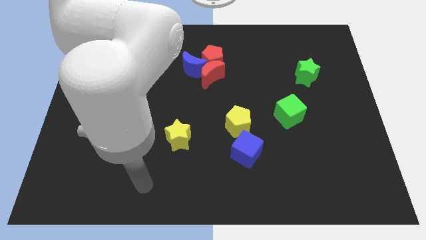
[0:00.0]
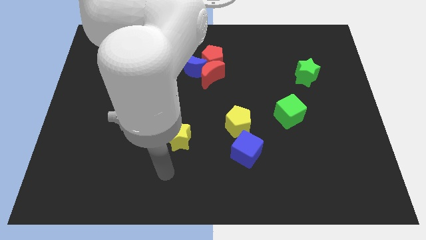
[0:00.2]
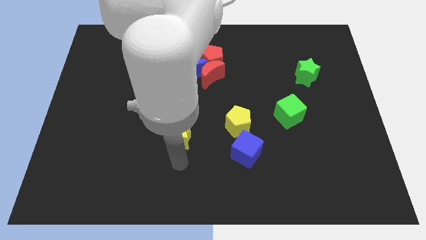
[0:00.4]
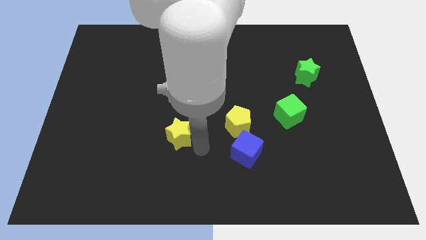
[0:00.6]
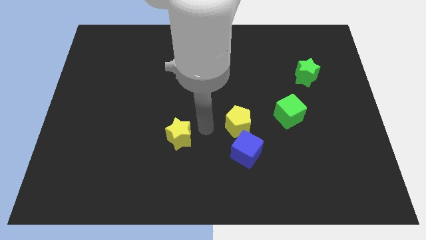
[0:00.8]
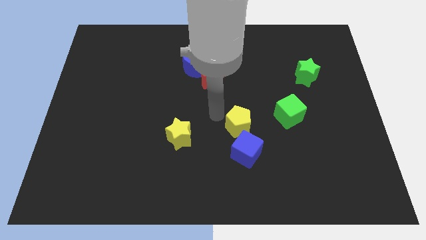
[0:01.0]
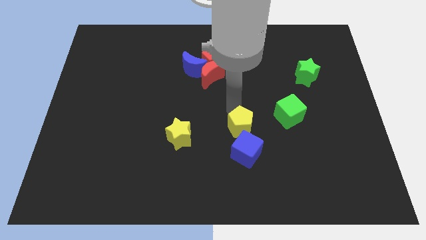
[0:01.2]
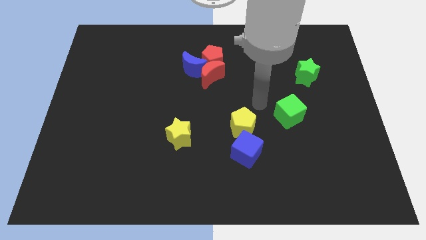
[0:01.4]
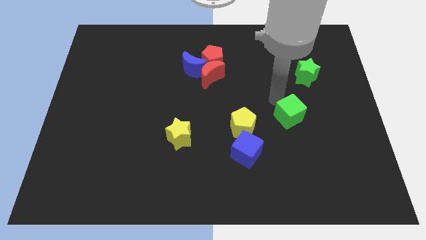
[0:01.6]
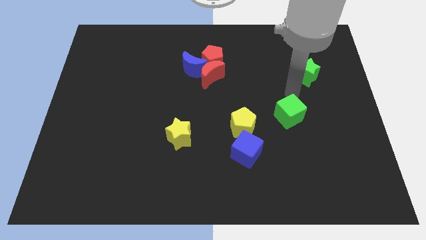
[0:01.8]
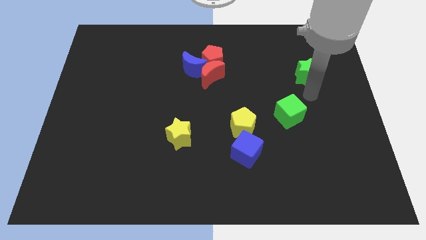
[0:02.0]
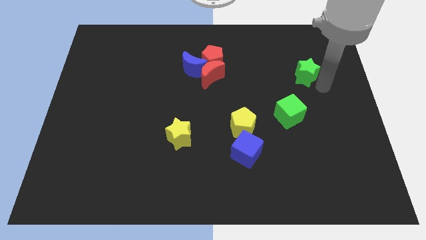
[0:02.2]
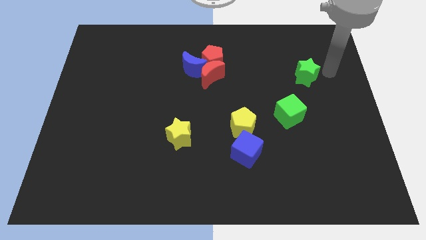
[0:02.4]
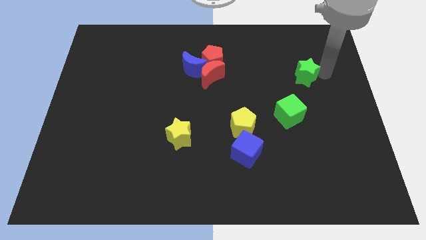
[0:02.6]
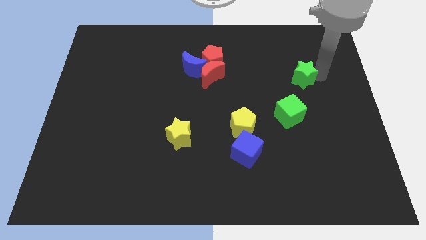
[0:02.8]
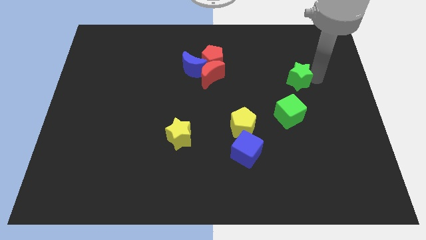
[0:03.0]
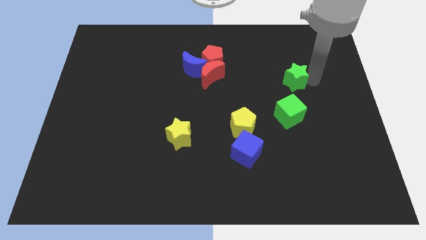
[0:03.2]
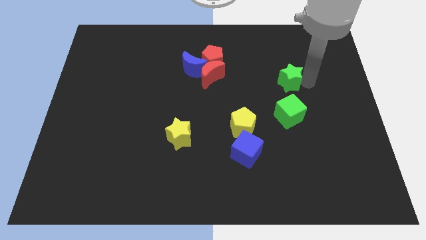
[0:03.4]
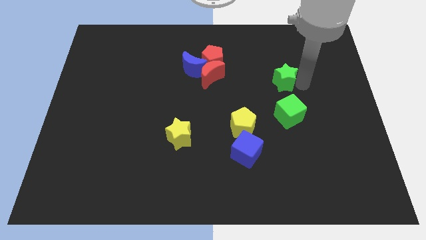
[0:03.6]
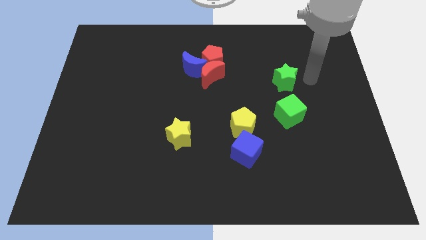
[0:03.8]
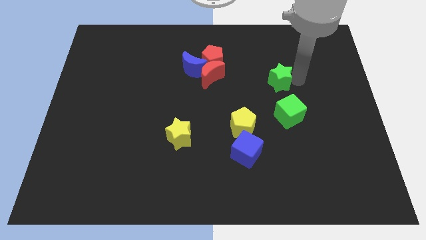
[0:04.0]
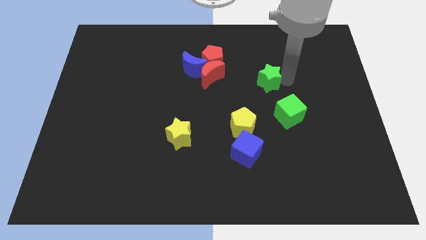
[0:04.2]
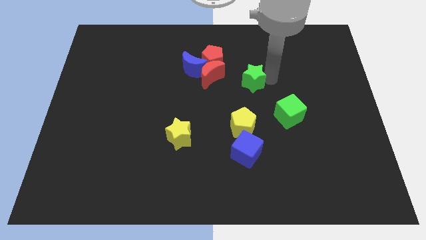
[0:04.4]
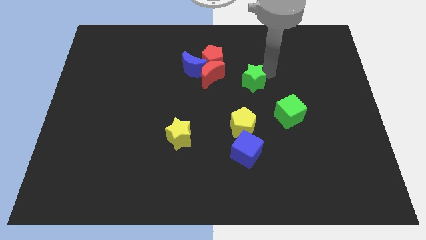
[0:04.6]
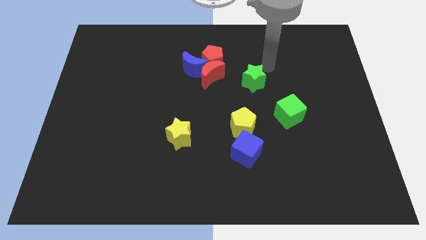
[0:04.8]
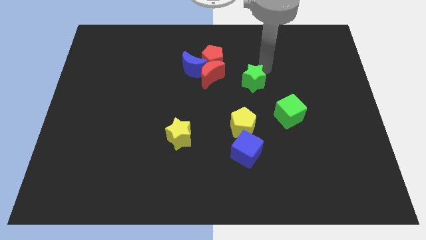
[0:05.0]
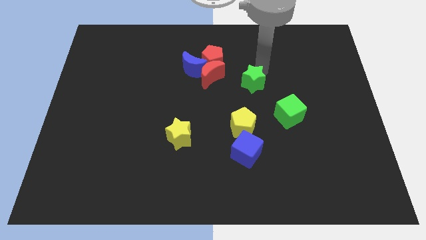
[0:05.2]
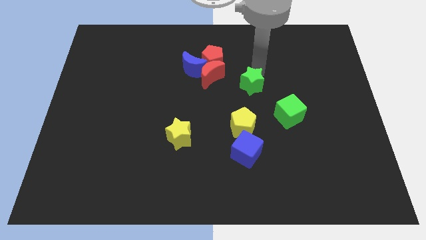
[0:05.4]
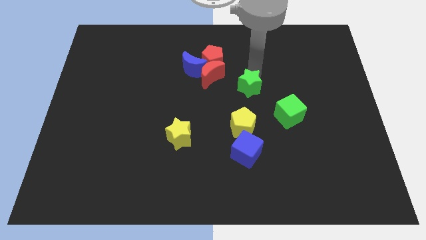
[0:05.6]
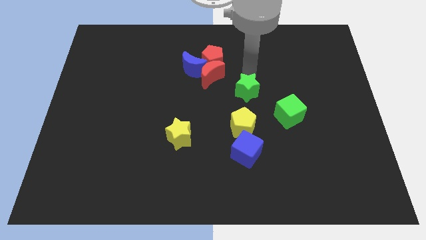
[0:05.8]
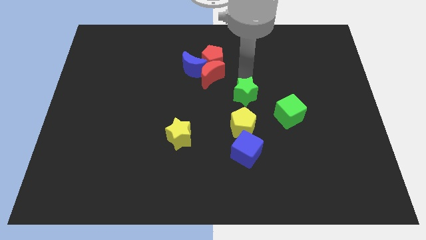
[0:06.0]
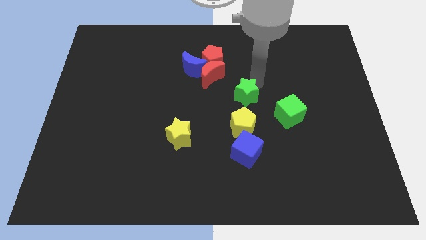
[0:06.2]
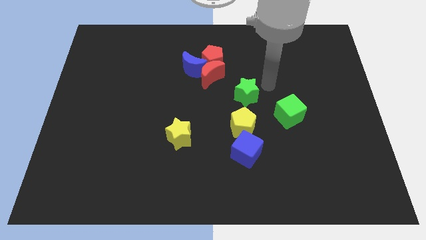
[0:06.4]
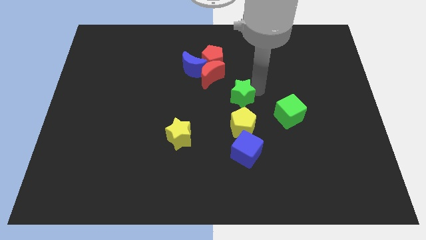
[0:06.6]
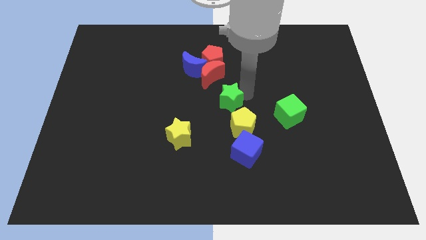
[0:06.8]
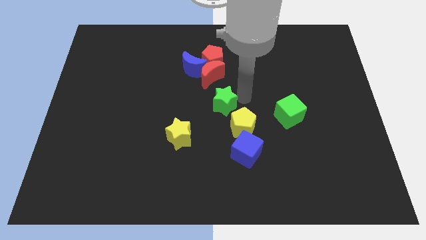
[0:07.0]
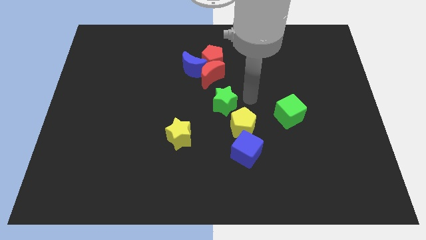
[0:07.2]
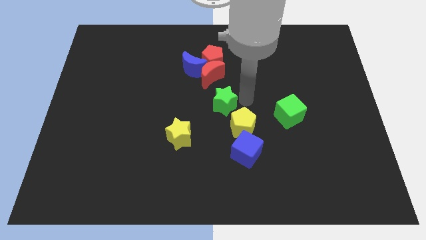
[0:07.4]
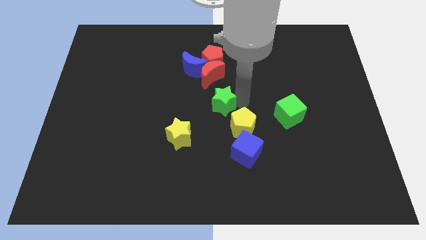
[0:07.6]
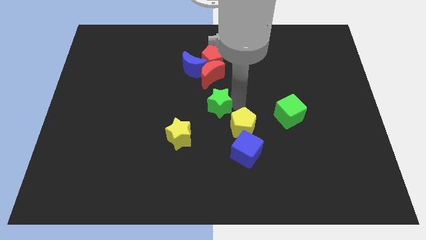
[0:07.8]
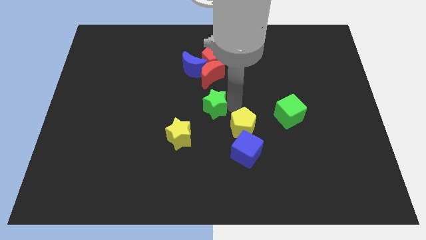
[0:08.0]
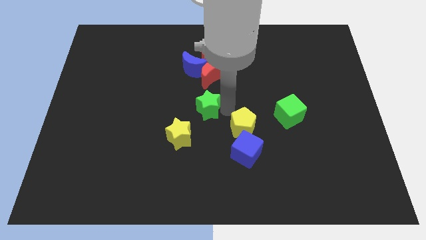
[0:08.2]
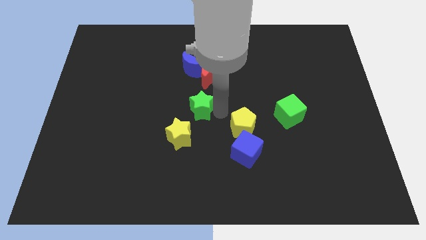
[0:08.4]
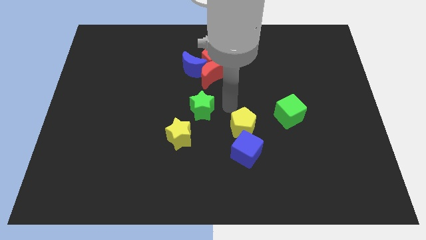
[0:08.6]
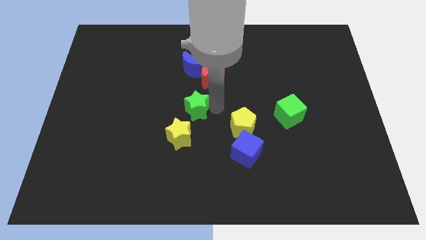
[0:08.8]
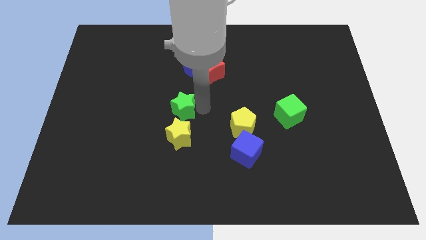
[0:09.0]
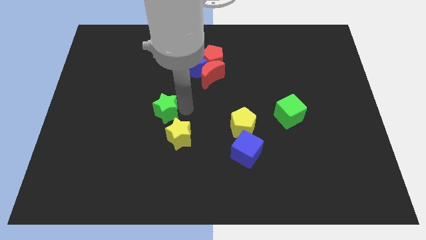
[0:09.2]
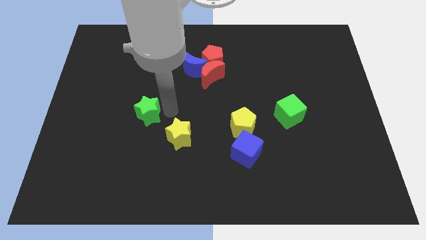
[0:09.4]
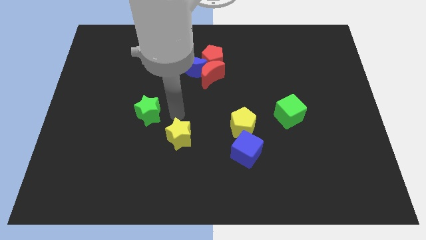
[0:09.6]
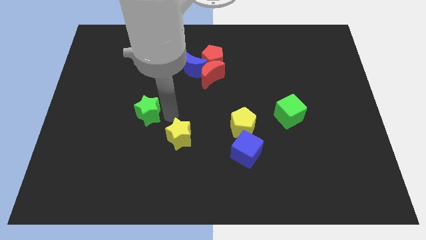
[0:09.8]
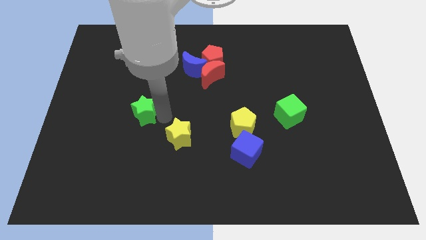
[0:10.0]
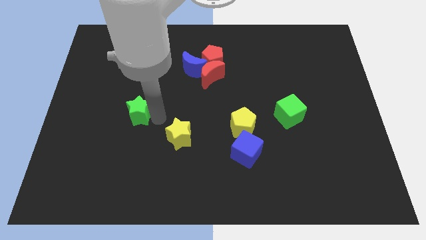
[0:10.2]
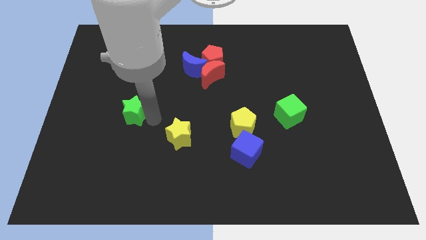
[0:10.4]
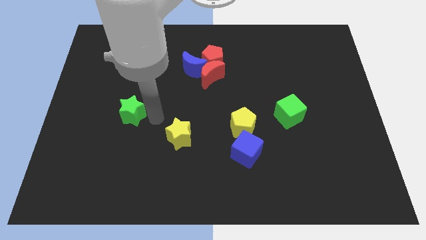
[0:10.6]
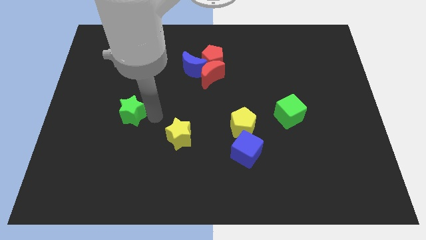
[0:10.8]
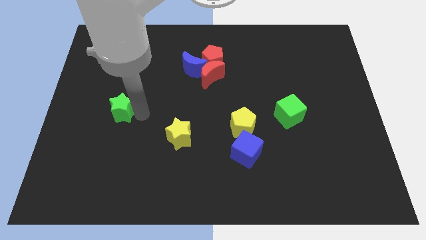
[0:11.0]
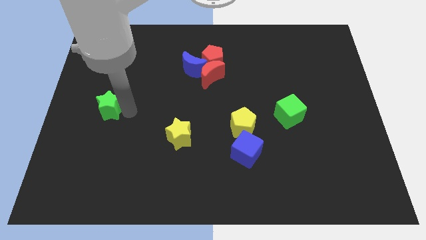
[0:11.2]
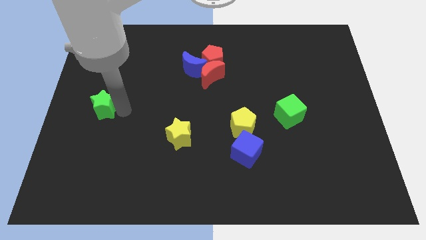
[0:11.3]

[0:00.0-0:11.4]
move the green star to the left side

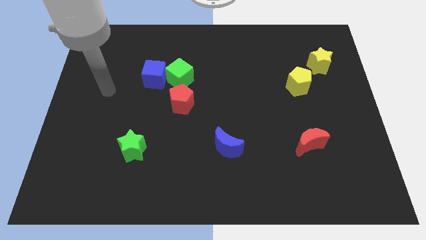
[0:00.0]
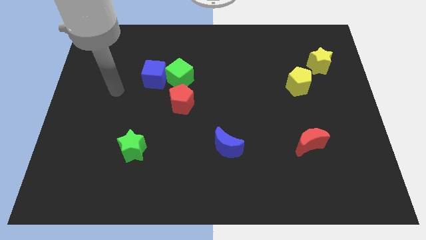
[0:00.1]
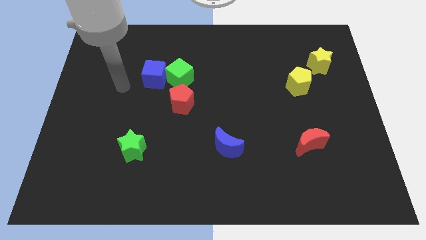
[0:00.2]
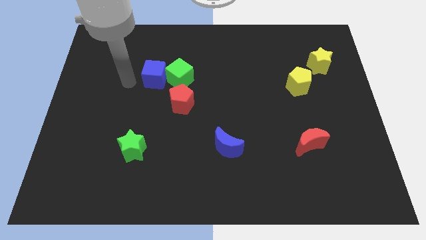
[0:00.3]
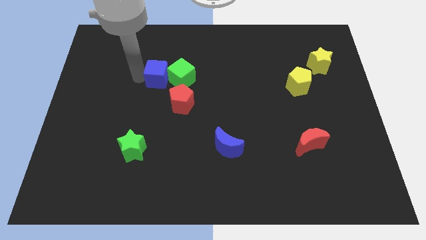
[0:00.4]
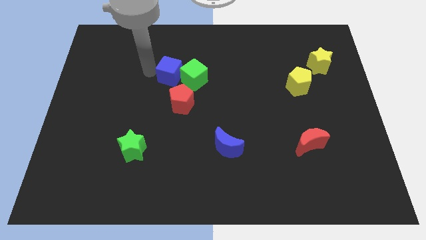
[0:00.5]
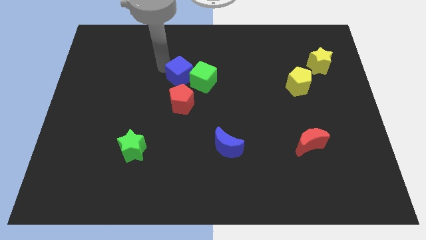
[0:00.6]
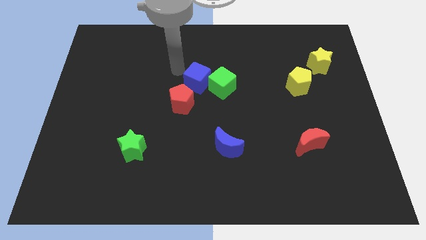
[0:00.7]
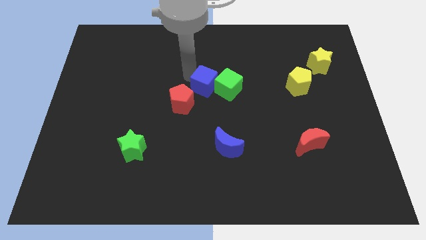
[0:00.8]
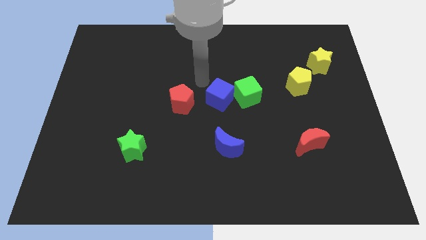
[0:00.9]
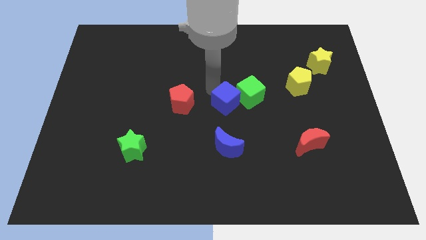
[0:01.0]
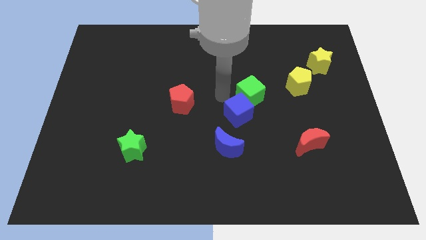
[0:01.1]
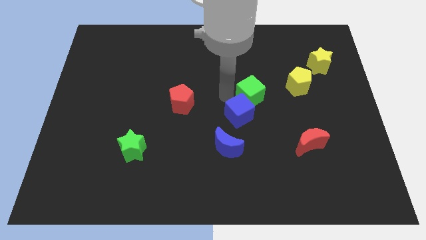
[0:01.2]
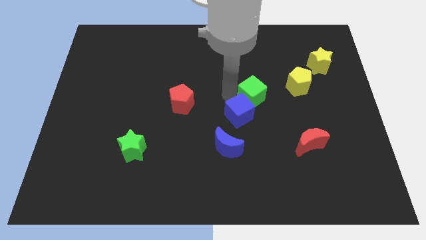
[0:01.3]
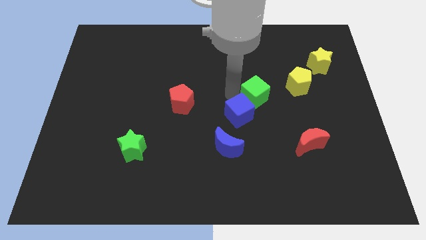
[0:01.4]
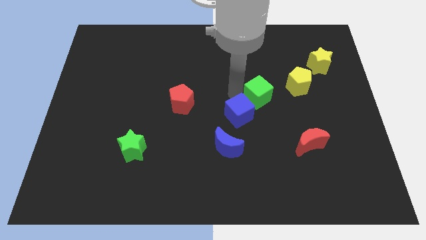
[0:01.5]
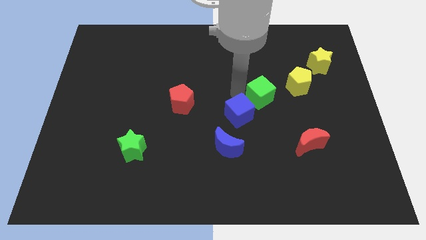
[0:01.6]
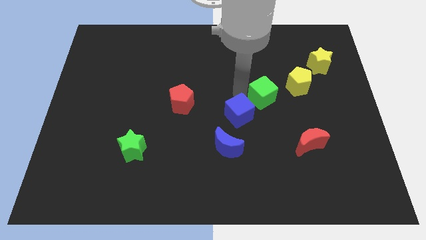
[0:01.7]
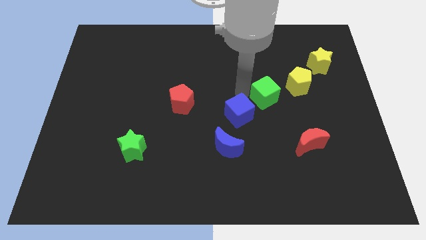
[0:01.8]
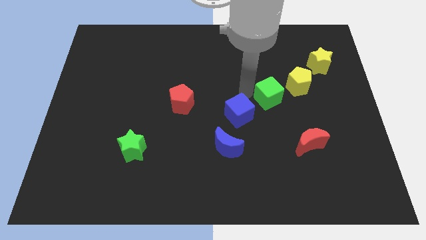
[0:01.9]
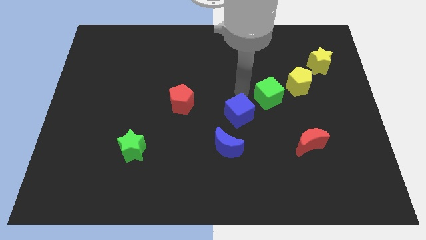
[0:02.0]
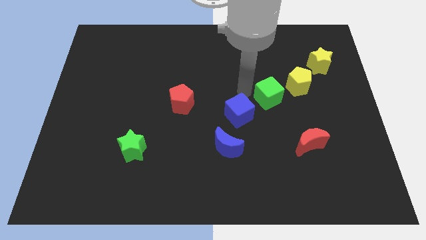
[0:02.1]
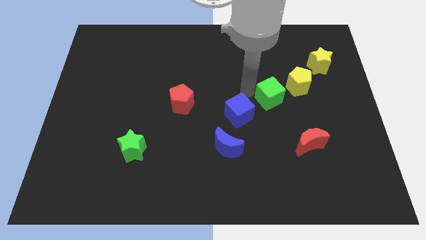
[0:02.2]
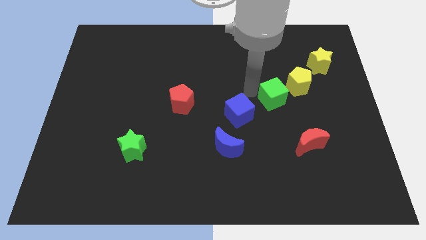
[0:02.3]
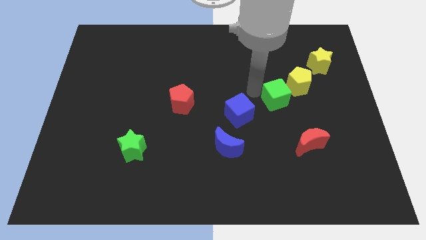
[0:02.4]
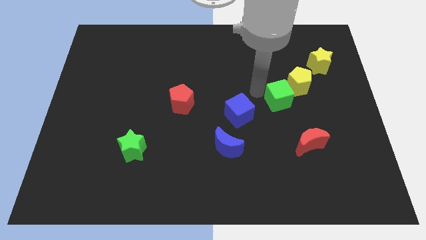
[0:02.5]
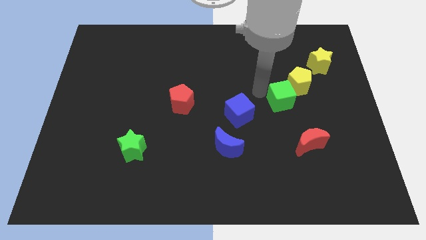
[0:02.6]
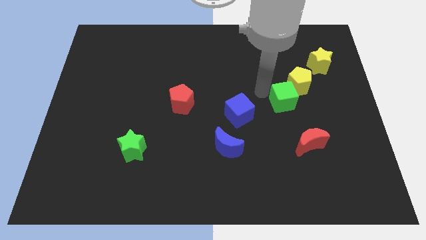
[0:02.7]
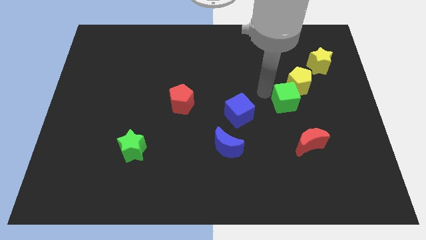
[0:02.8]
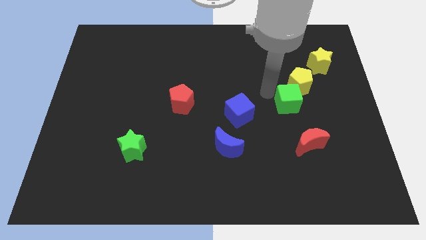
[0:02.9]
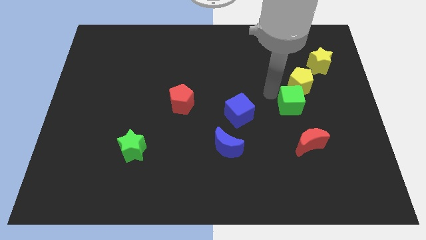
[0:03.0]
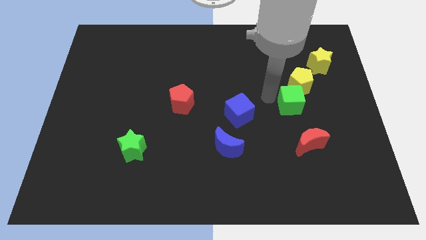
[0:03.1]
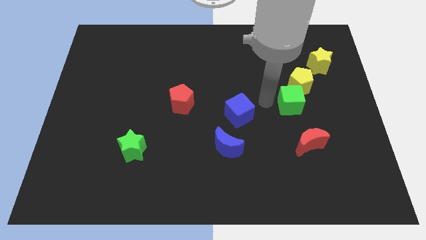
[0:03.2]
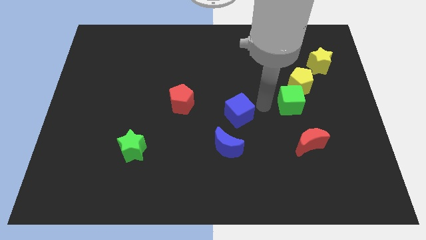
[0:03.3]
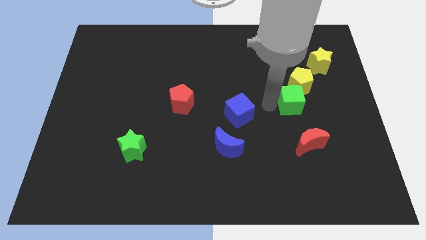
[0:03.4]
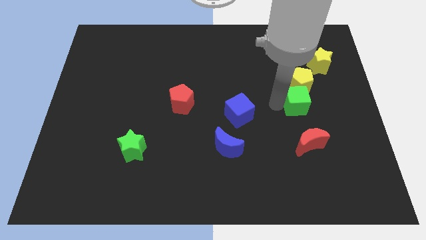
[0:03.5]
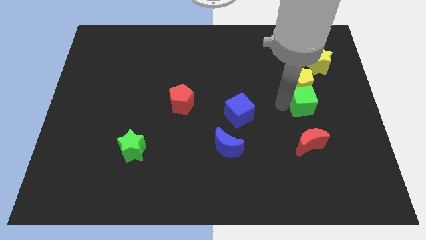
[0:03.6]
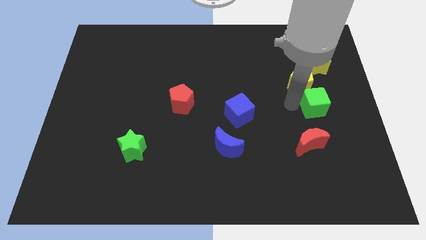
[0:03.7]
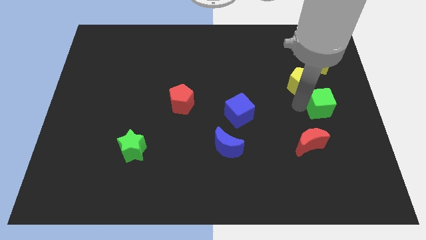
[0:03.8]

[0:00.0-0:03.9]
put the green cube to the right side of the board
